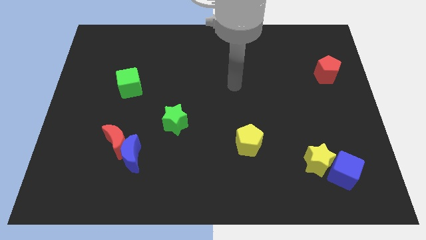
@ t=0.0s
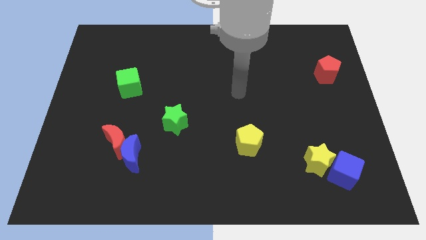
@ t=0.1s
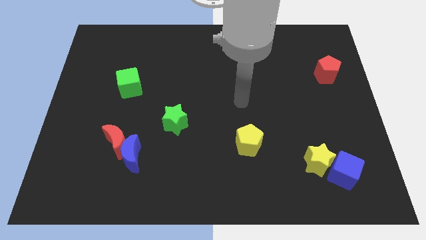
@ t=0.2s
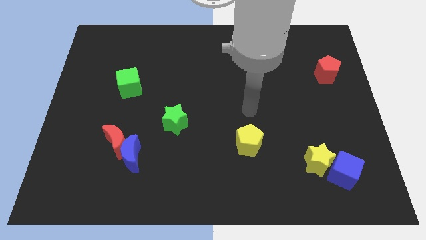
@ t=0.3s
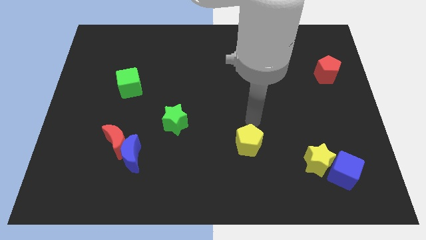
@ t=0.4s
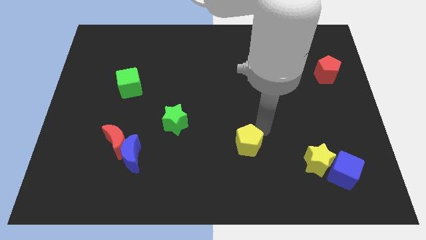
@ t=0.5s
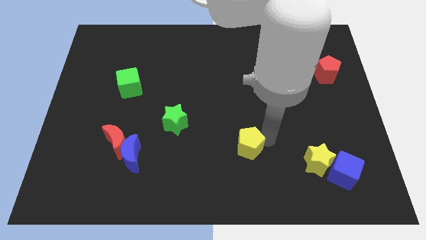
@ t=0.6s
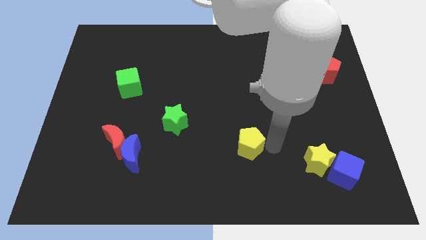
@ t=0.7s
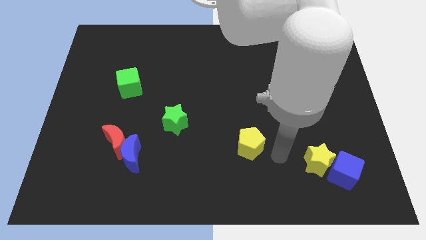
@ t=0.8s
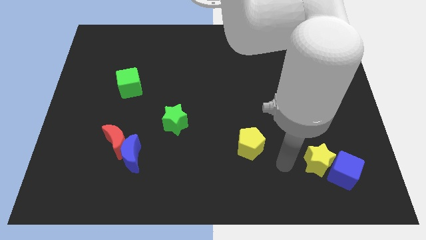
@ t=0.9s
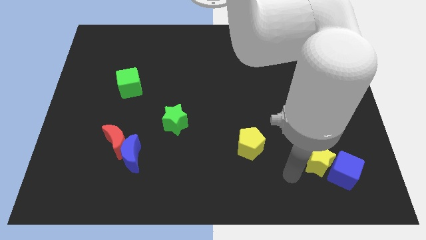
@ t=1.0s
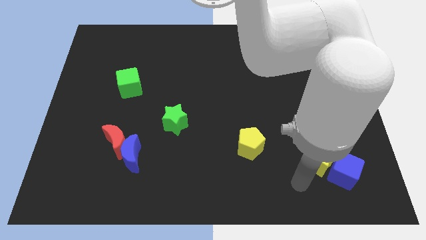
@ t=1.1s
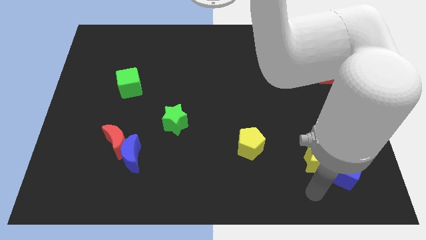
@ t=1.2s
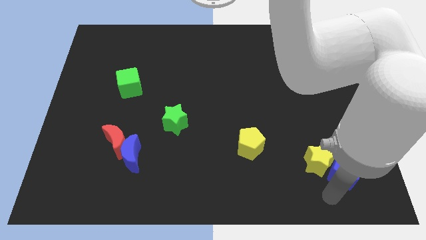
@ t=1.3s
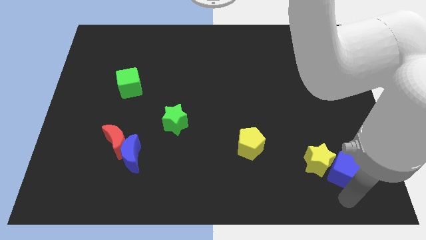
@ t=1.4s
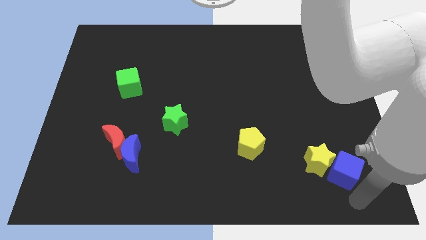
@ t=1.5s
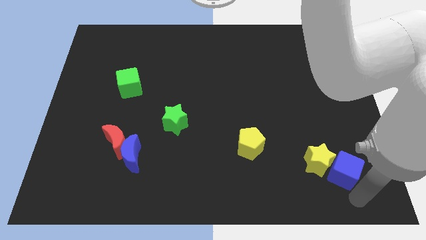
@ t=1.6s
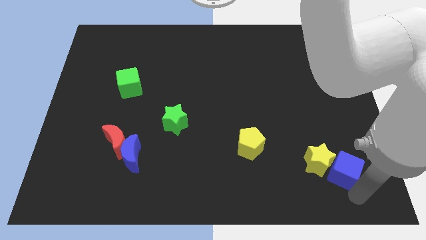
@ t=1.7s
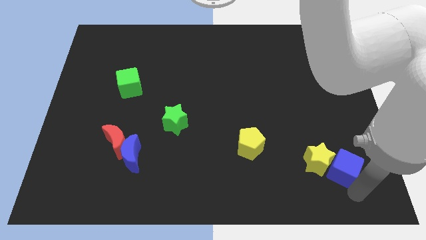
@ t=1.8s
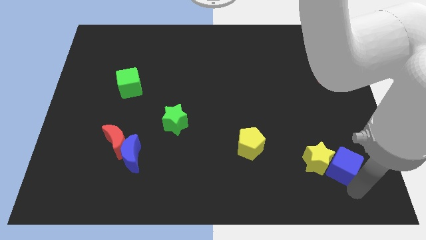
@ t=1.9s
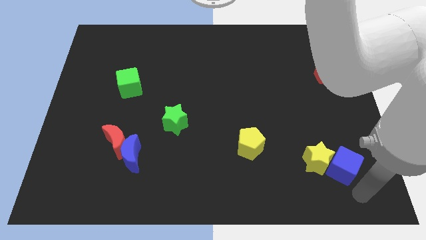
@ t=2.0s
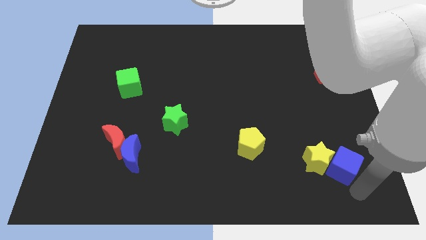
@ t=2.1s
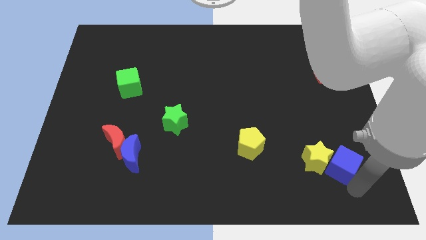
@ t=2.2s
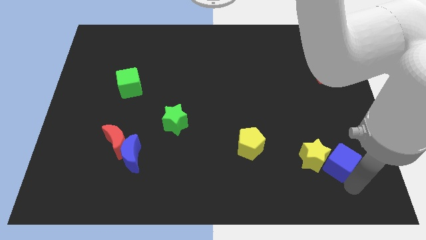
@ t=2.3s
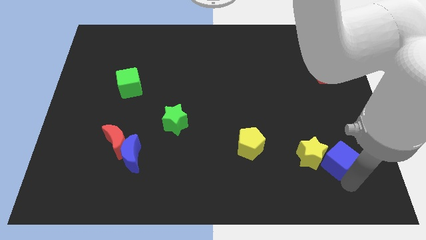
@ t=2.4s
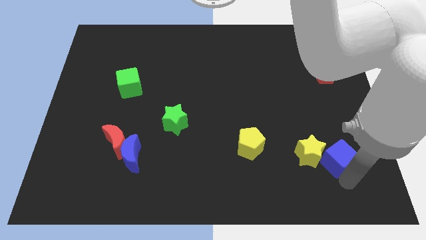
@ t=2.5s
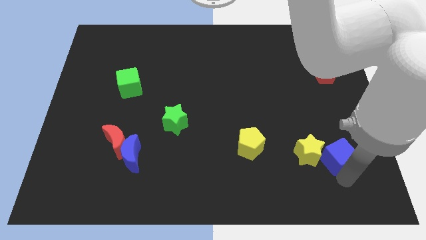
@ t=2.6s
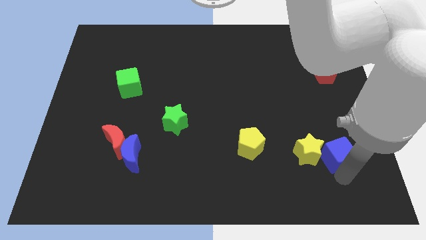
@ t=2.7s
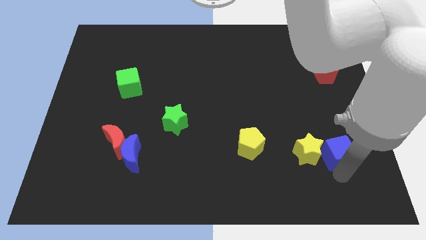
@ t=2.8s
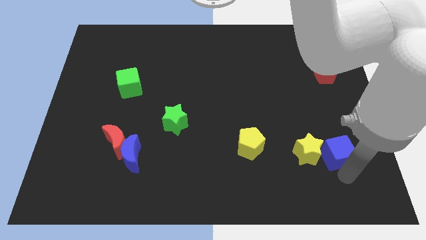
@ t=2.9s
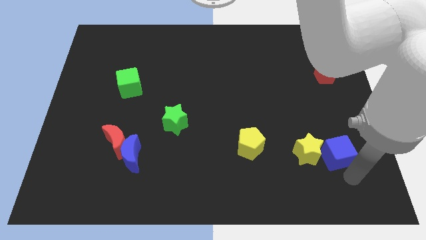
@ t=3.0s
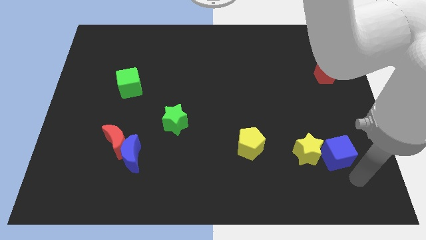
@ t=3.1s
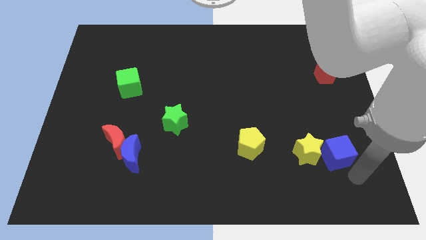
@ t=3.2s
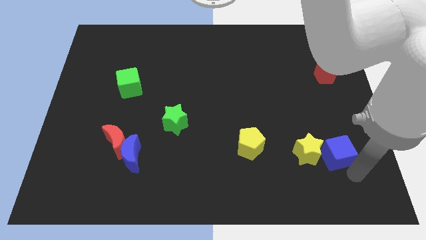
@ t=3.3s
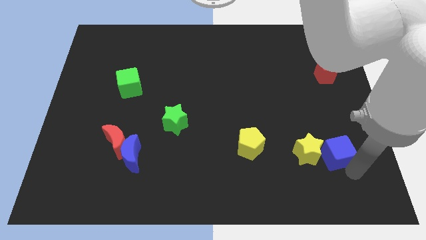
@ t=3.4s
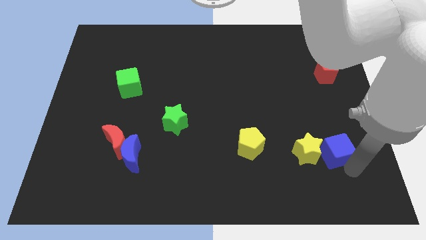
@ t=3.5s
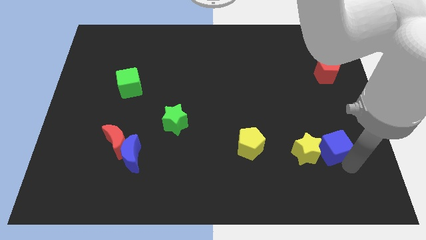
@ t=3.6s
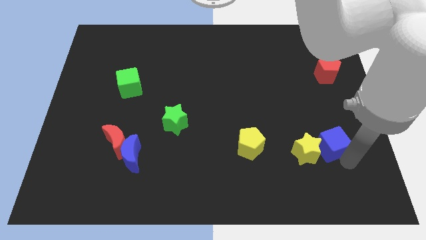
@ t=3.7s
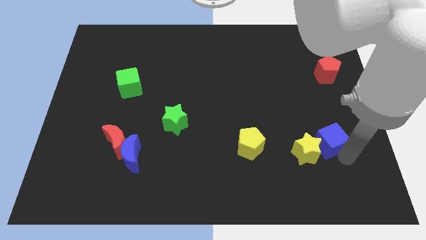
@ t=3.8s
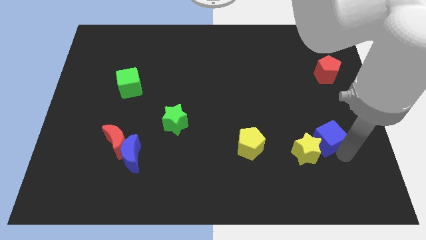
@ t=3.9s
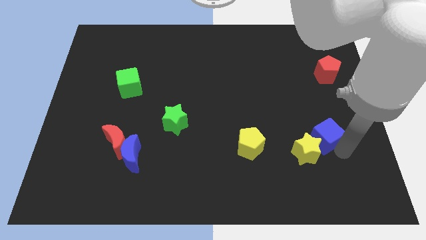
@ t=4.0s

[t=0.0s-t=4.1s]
slide the blue cube up and to the left diagonally slightly

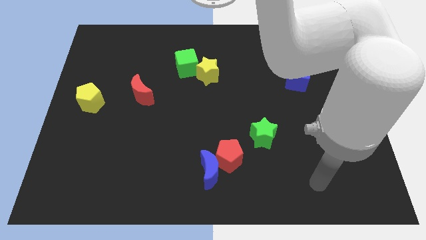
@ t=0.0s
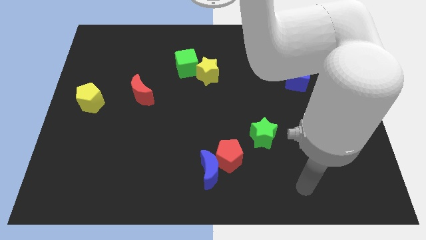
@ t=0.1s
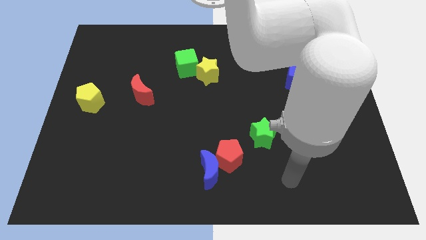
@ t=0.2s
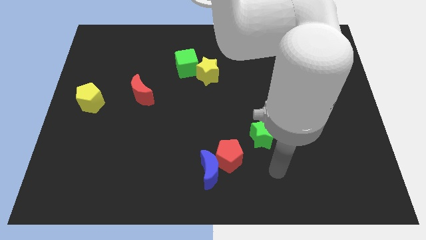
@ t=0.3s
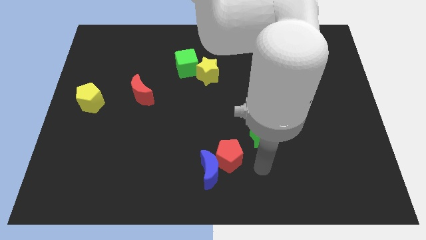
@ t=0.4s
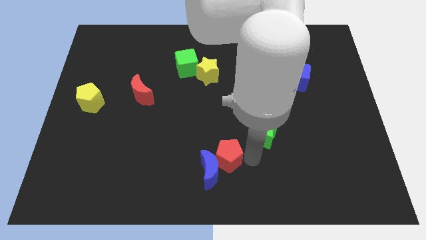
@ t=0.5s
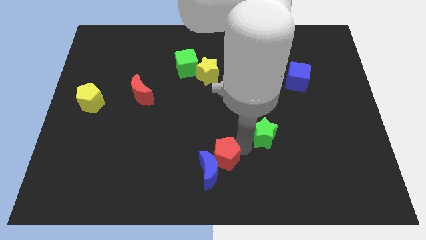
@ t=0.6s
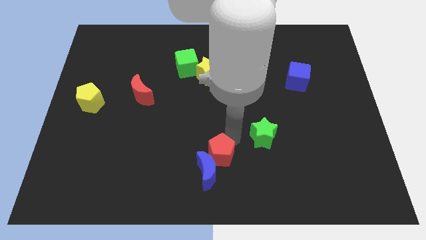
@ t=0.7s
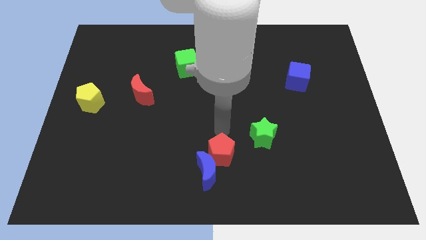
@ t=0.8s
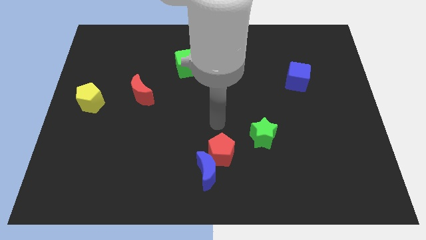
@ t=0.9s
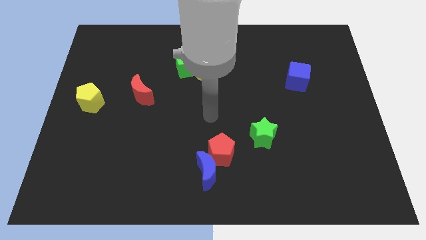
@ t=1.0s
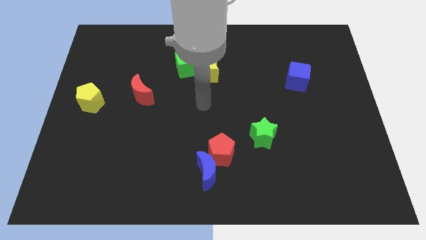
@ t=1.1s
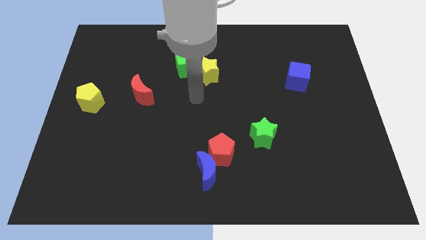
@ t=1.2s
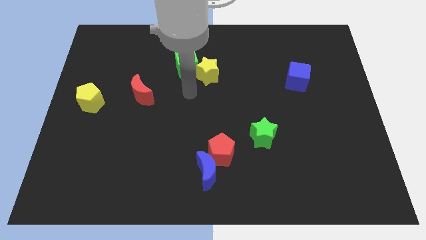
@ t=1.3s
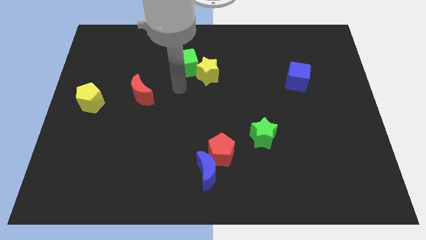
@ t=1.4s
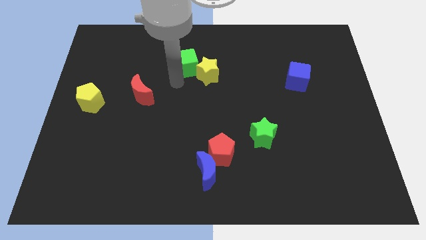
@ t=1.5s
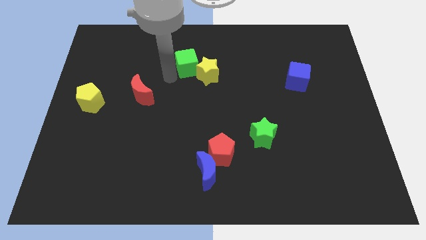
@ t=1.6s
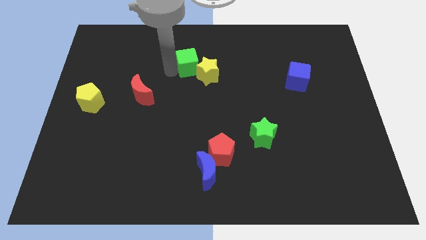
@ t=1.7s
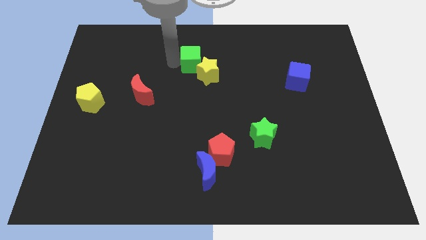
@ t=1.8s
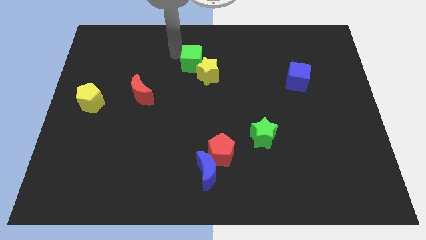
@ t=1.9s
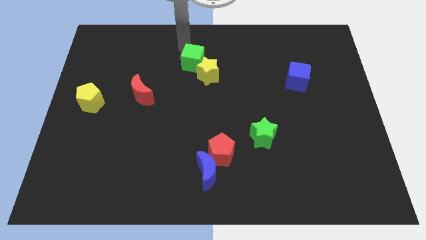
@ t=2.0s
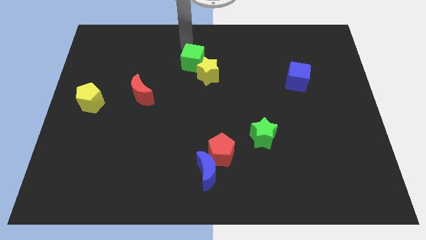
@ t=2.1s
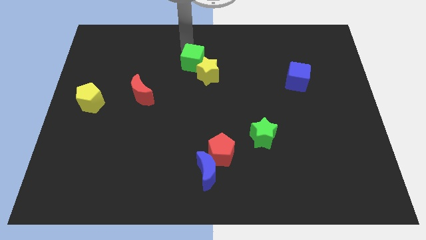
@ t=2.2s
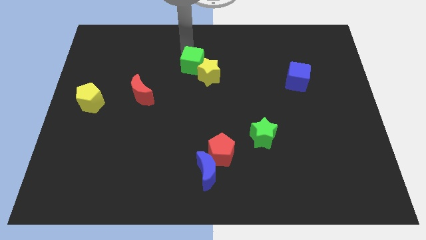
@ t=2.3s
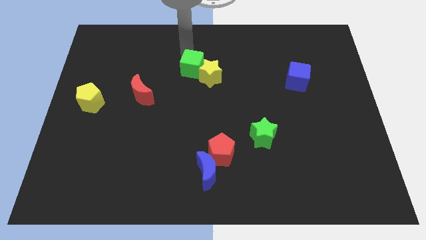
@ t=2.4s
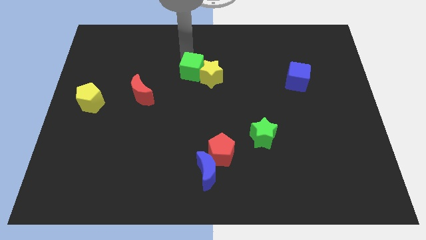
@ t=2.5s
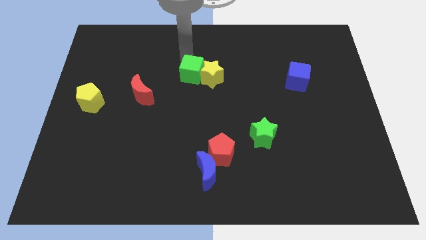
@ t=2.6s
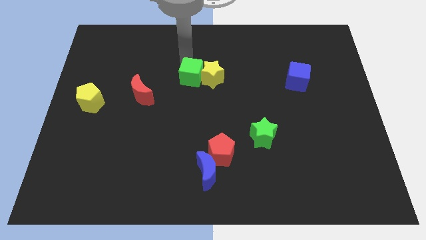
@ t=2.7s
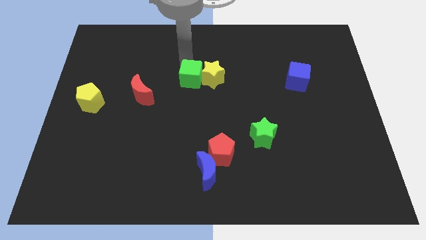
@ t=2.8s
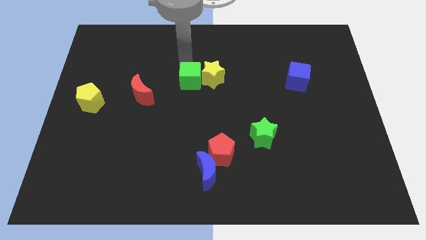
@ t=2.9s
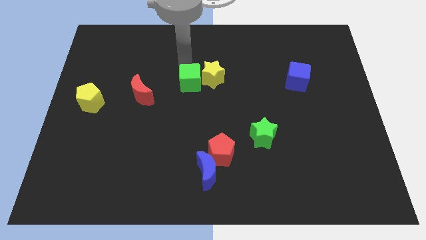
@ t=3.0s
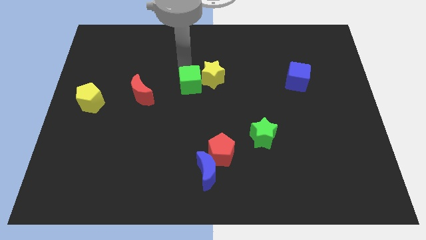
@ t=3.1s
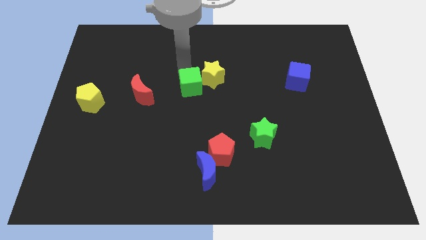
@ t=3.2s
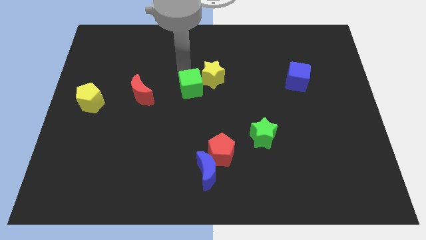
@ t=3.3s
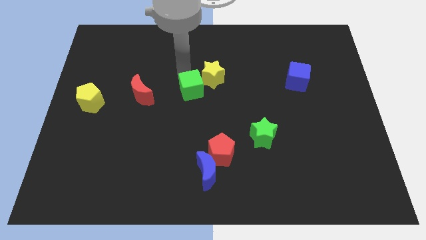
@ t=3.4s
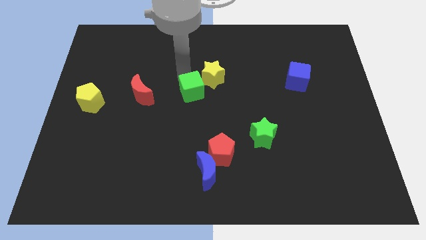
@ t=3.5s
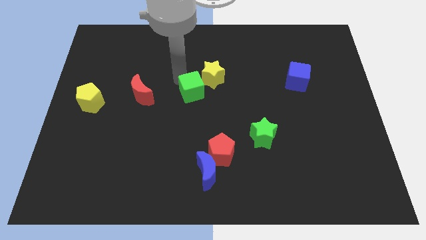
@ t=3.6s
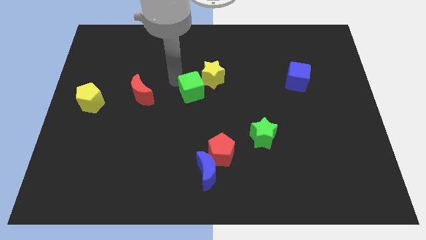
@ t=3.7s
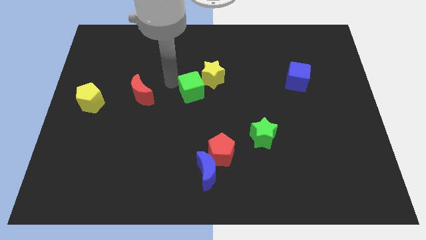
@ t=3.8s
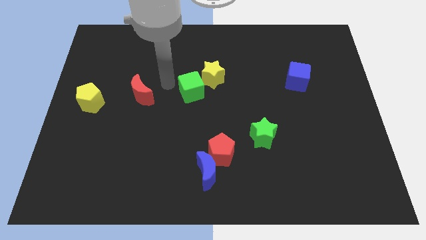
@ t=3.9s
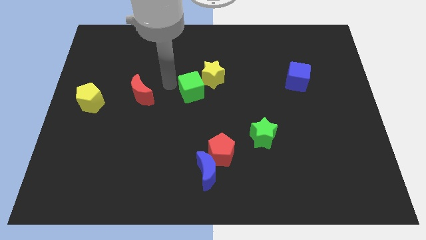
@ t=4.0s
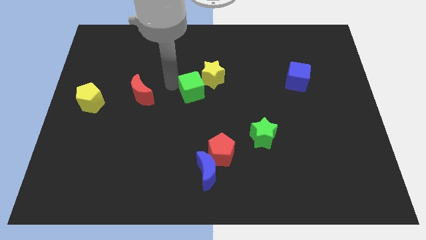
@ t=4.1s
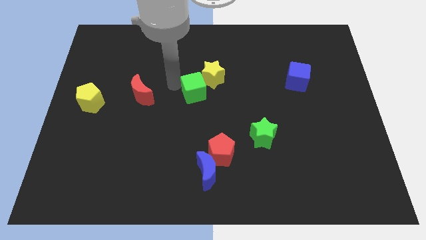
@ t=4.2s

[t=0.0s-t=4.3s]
slightly slide the green cube diagonally down and right
